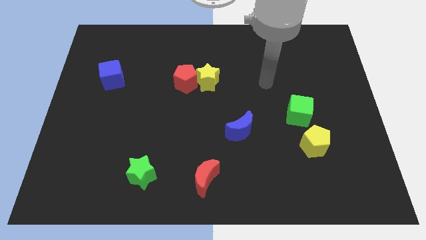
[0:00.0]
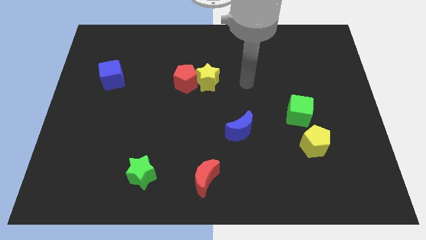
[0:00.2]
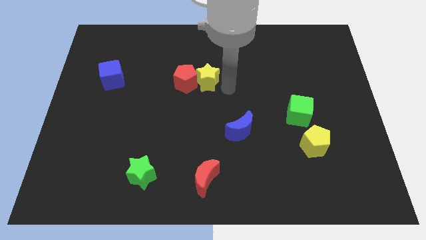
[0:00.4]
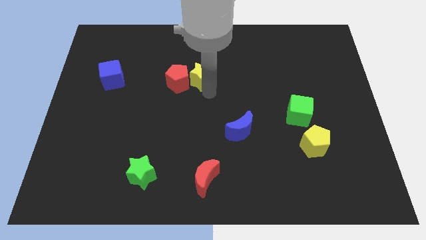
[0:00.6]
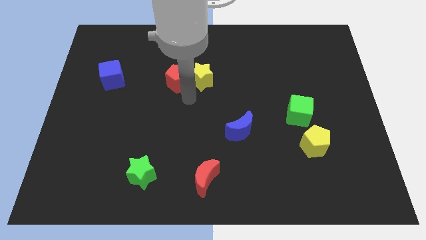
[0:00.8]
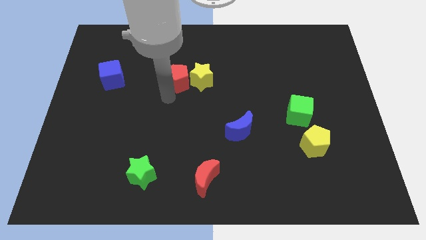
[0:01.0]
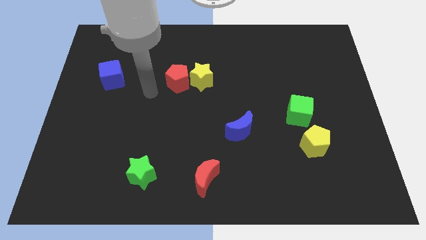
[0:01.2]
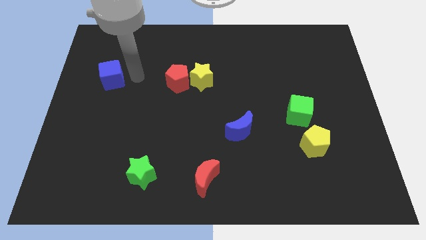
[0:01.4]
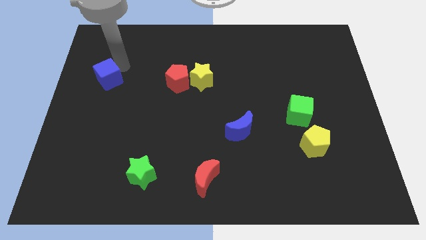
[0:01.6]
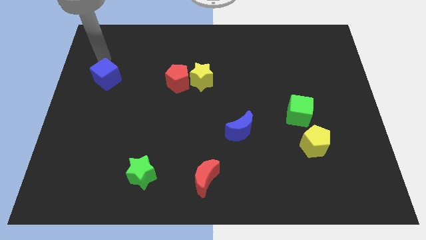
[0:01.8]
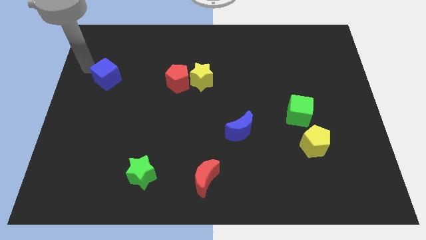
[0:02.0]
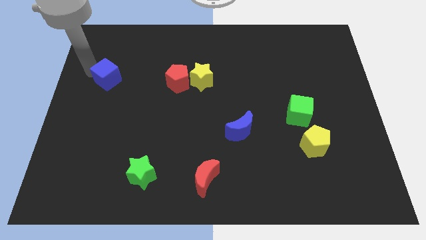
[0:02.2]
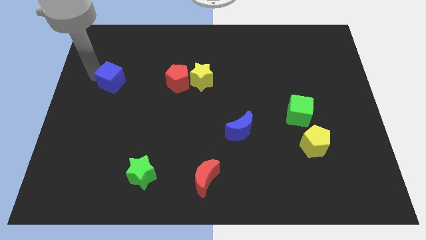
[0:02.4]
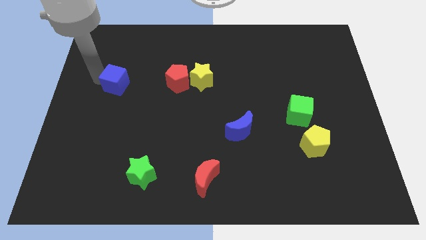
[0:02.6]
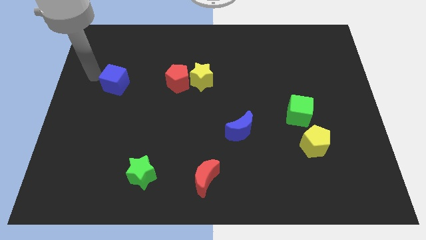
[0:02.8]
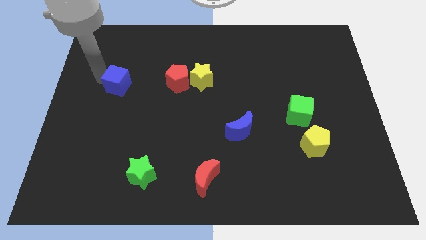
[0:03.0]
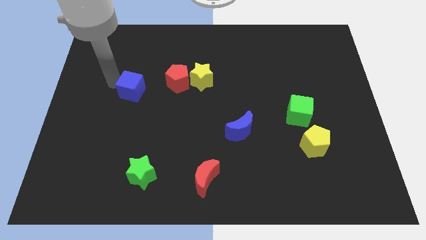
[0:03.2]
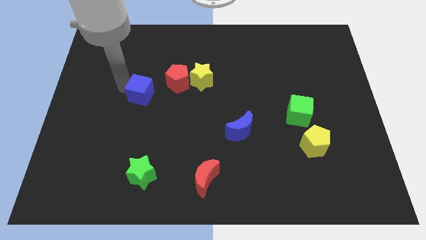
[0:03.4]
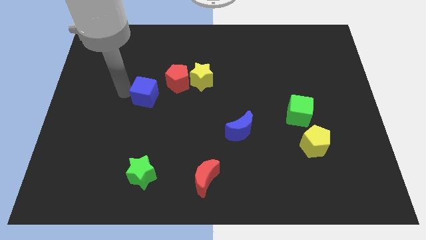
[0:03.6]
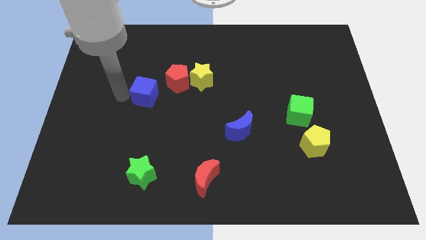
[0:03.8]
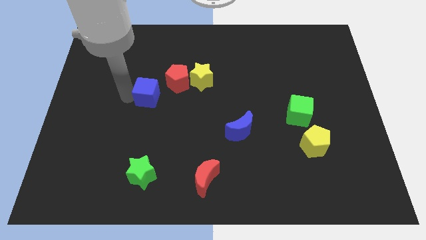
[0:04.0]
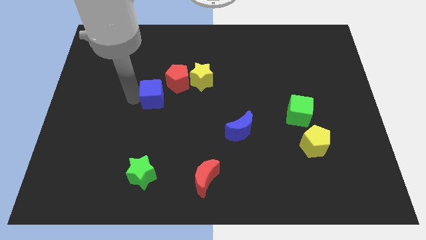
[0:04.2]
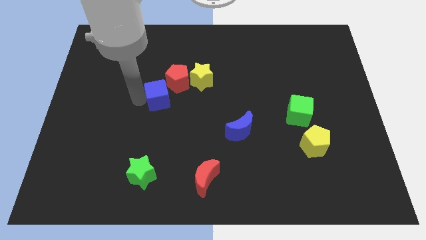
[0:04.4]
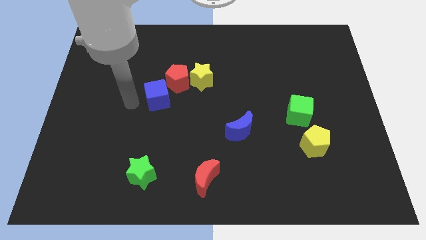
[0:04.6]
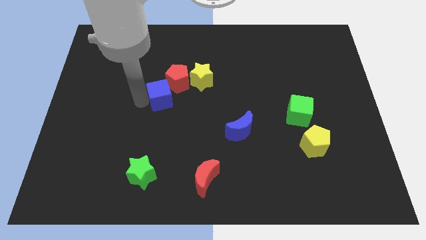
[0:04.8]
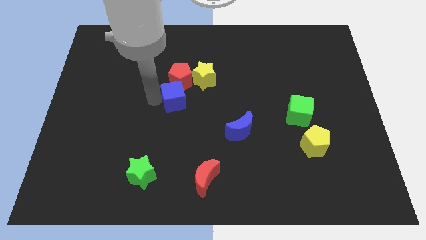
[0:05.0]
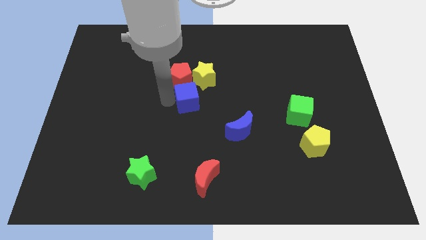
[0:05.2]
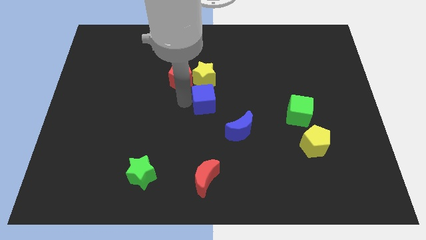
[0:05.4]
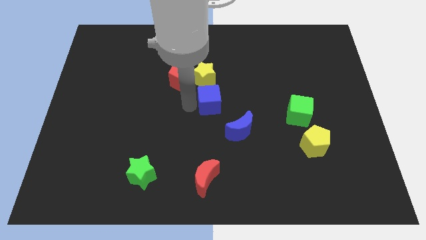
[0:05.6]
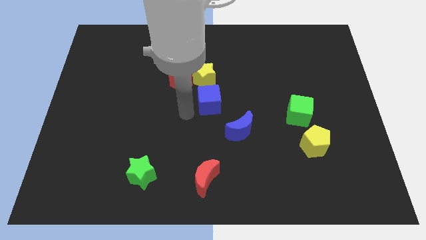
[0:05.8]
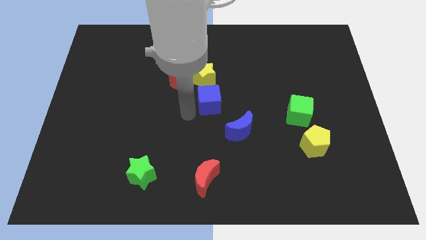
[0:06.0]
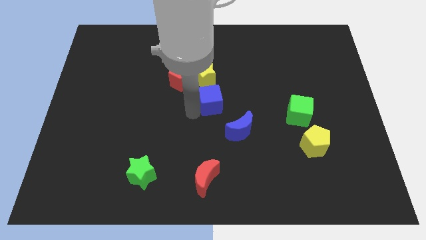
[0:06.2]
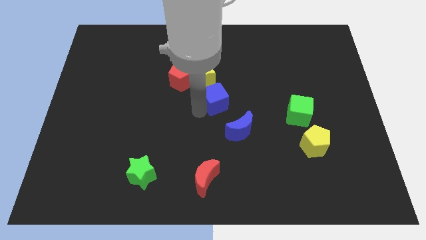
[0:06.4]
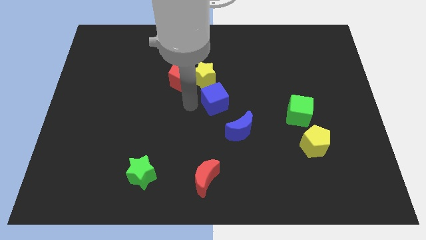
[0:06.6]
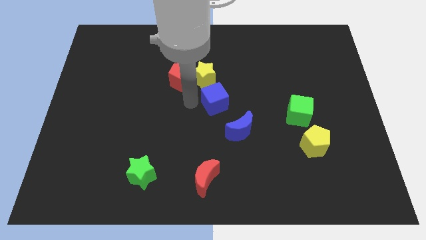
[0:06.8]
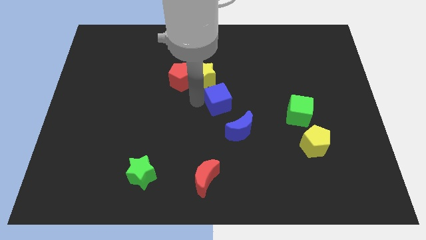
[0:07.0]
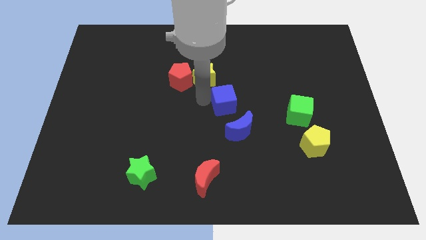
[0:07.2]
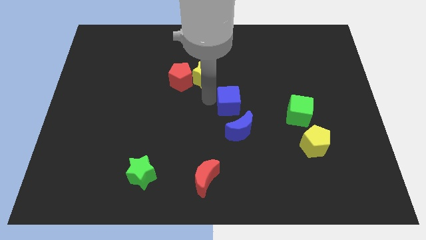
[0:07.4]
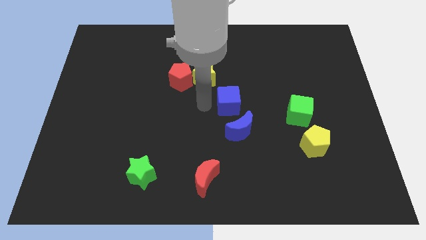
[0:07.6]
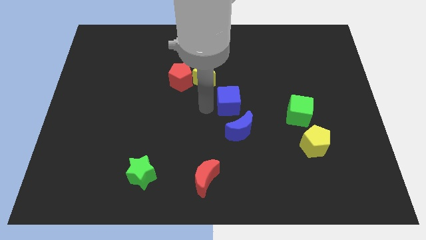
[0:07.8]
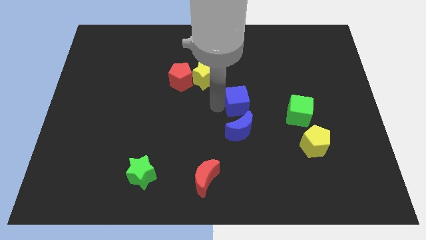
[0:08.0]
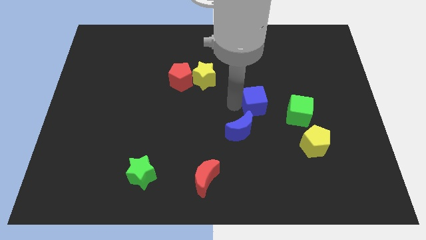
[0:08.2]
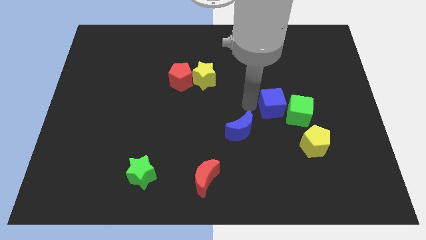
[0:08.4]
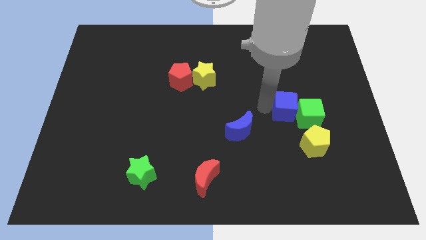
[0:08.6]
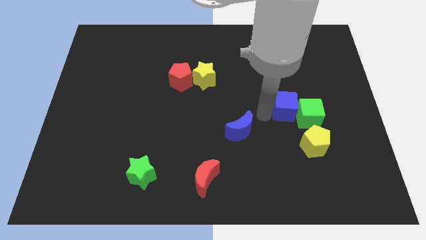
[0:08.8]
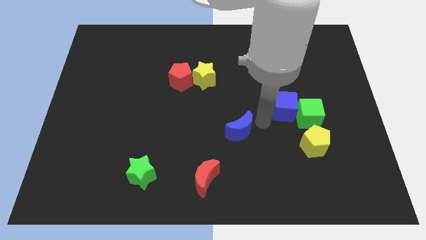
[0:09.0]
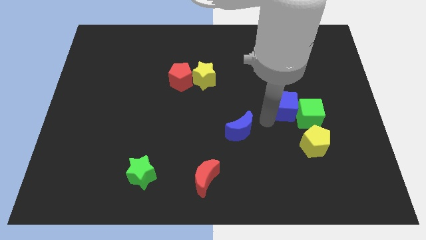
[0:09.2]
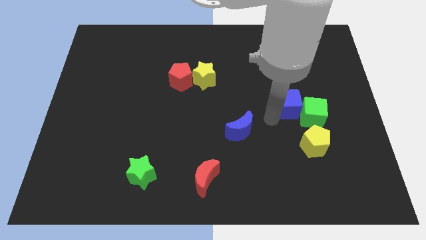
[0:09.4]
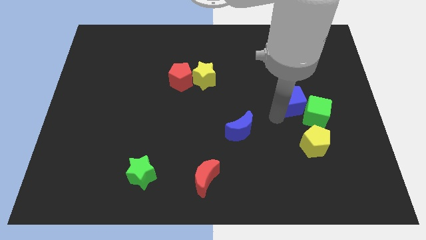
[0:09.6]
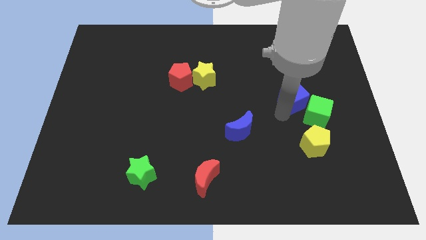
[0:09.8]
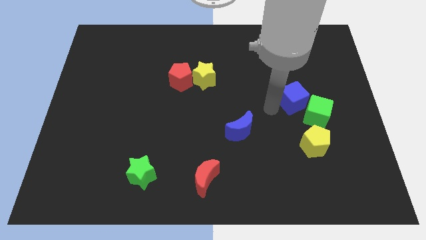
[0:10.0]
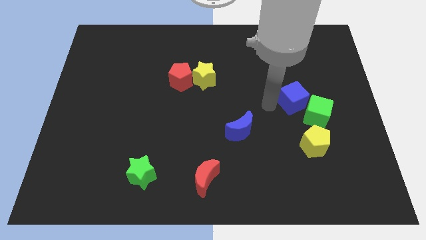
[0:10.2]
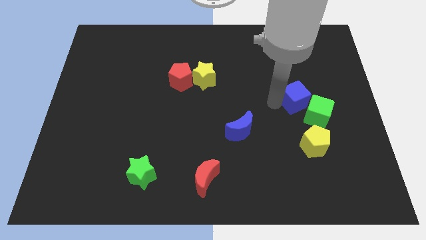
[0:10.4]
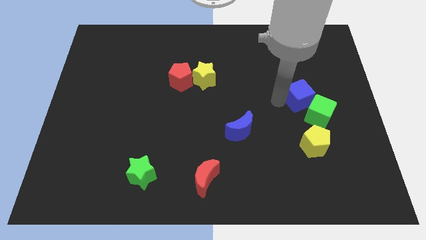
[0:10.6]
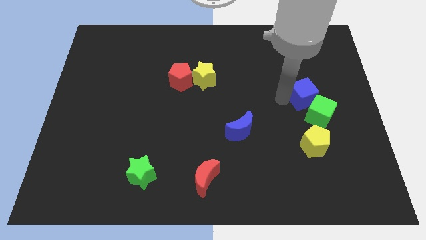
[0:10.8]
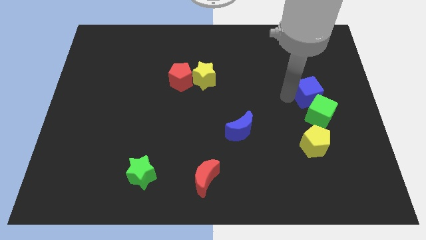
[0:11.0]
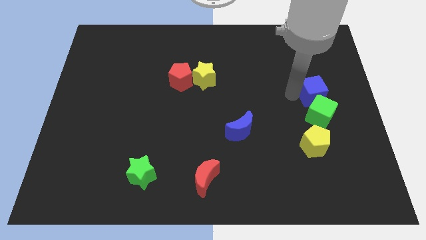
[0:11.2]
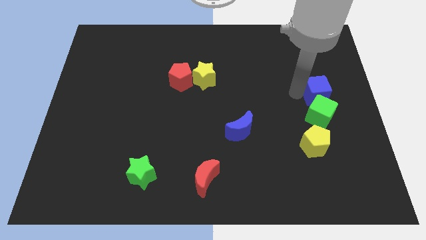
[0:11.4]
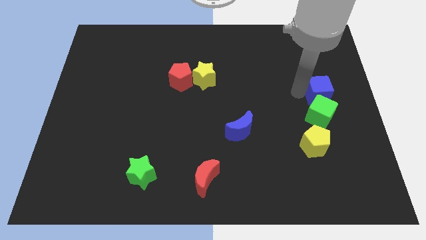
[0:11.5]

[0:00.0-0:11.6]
move the blue cube to the center right

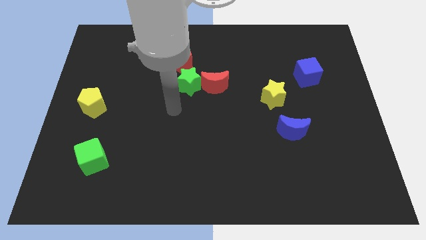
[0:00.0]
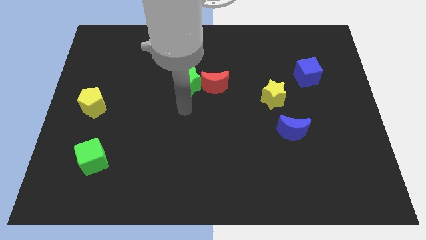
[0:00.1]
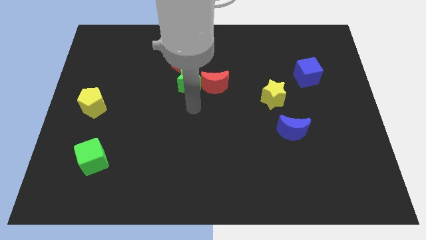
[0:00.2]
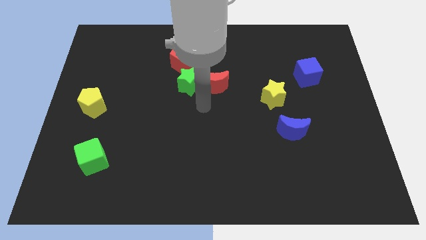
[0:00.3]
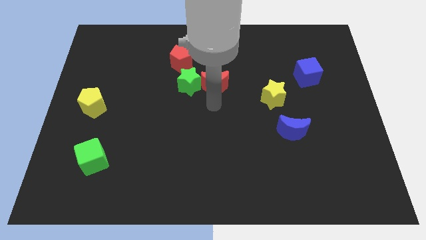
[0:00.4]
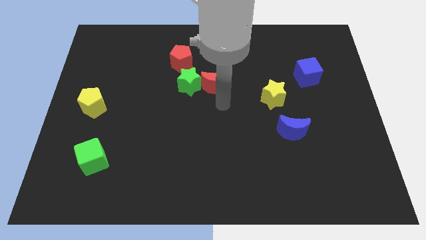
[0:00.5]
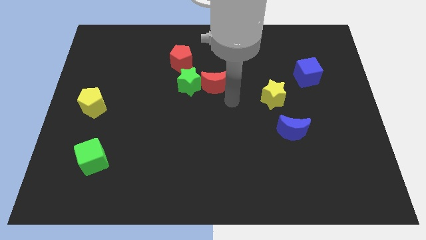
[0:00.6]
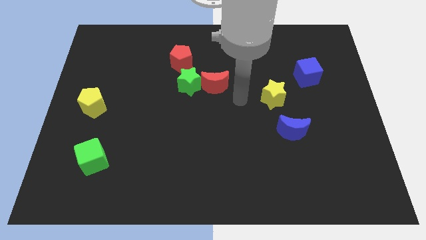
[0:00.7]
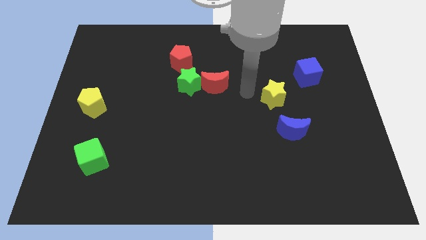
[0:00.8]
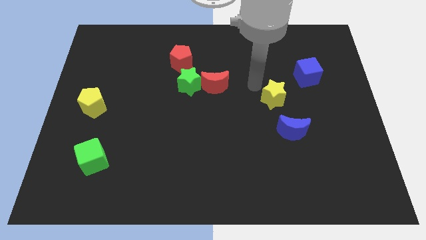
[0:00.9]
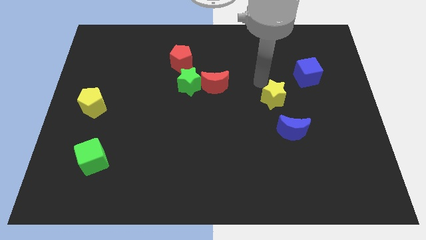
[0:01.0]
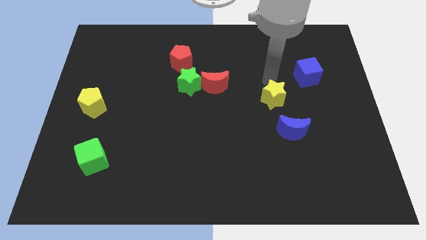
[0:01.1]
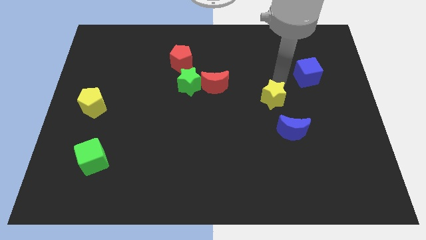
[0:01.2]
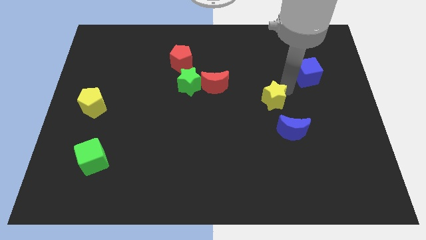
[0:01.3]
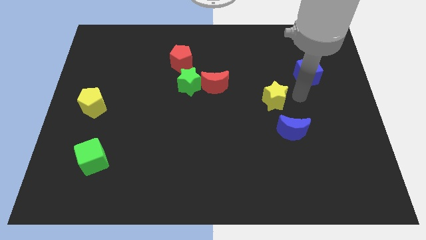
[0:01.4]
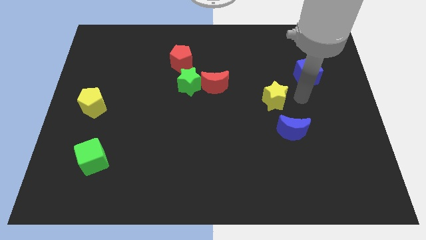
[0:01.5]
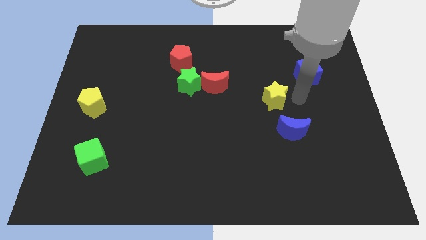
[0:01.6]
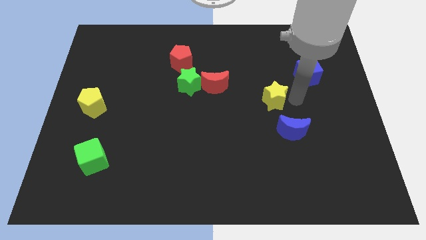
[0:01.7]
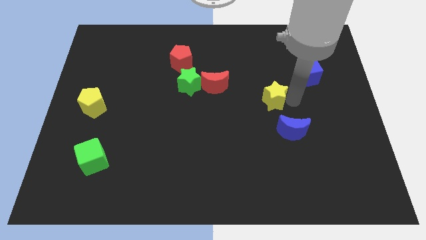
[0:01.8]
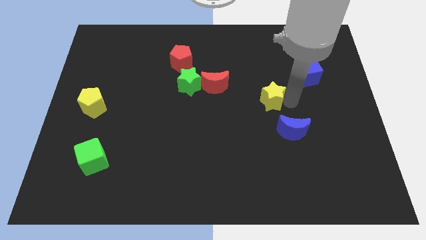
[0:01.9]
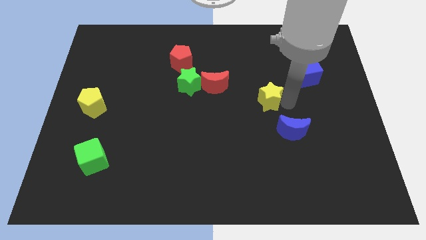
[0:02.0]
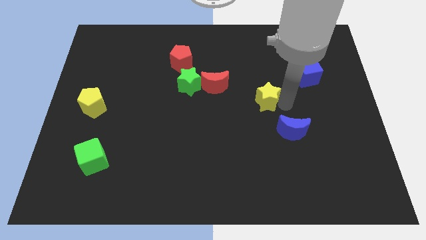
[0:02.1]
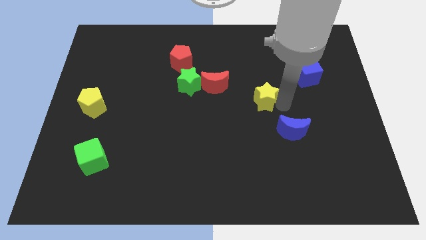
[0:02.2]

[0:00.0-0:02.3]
put the yellow star to the center
